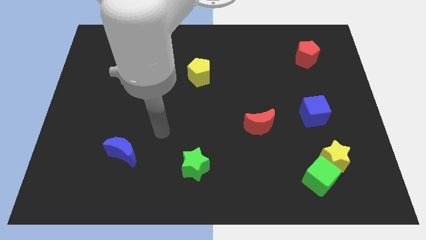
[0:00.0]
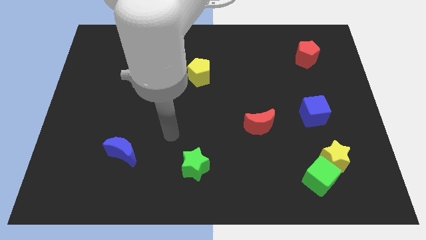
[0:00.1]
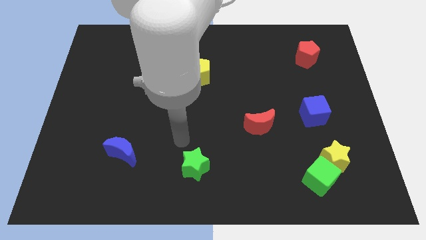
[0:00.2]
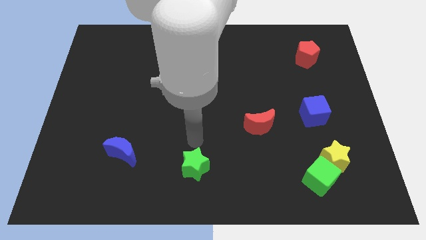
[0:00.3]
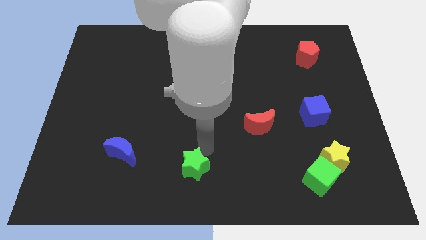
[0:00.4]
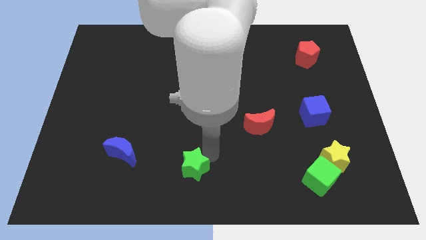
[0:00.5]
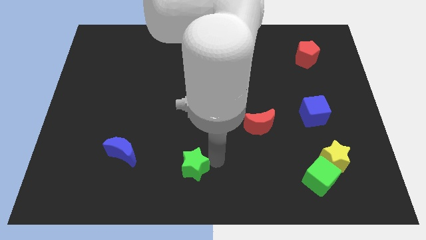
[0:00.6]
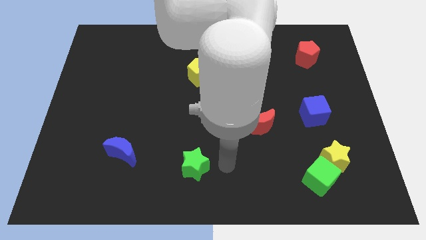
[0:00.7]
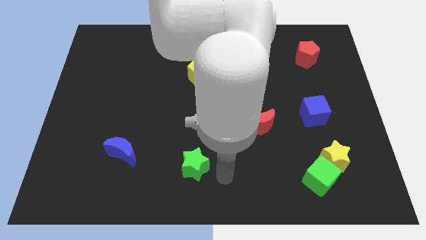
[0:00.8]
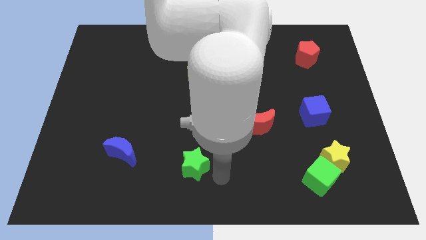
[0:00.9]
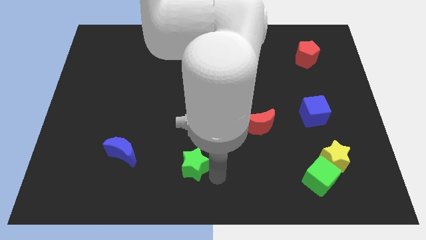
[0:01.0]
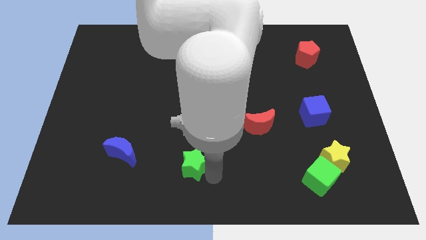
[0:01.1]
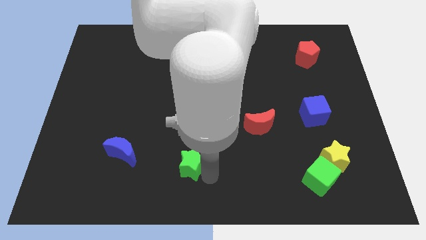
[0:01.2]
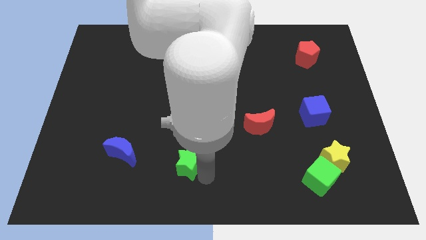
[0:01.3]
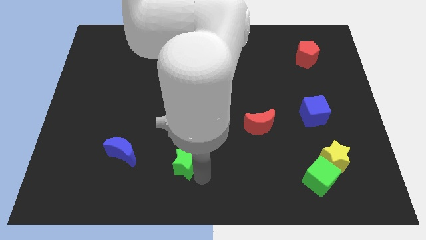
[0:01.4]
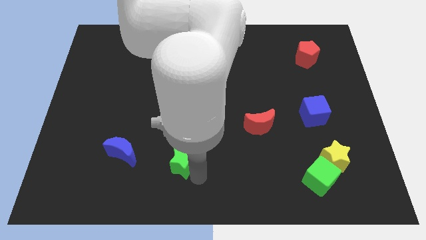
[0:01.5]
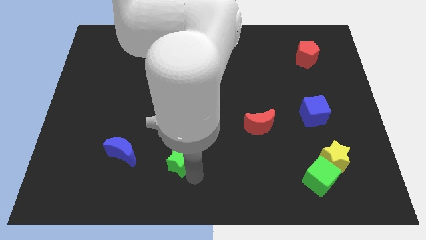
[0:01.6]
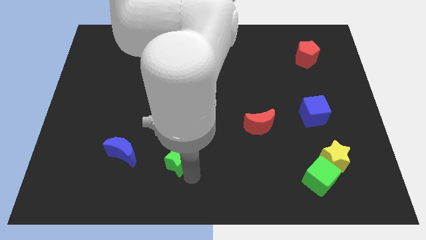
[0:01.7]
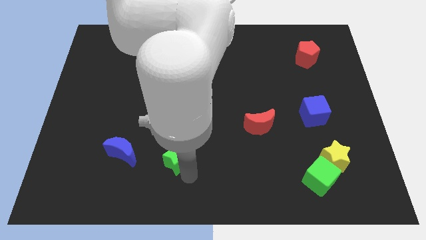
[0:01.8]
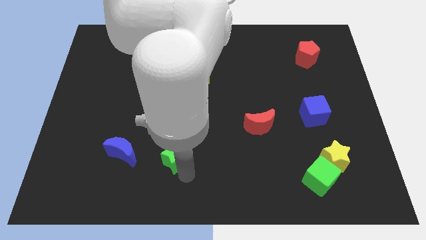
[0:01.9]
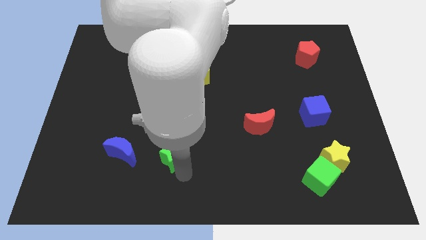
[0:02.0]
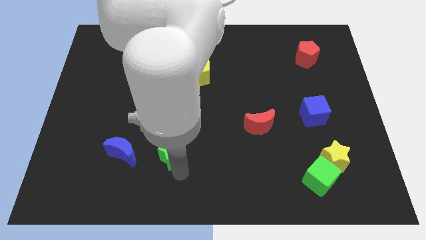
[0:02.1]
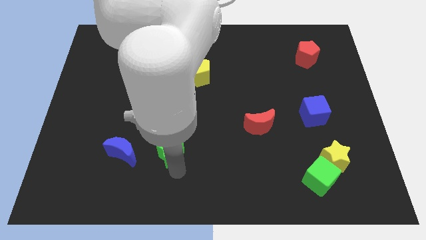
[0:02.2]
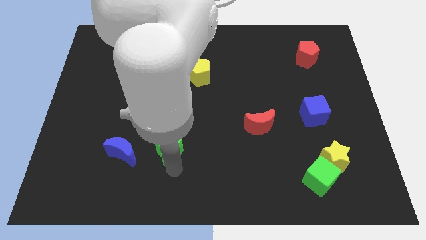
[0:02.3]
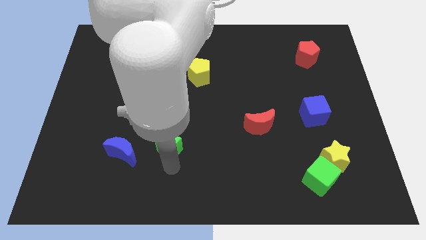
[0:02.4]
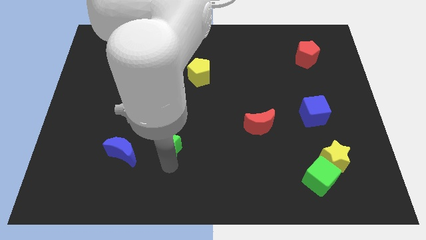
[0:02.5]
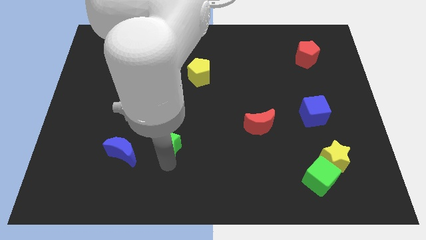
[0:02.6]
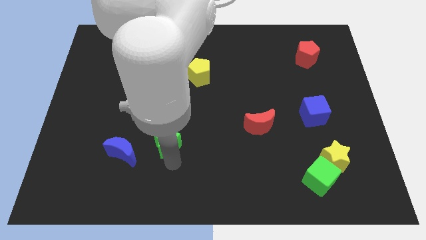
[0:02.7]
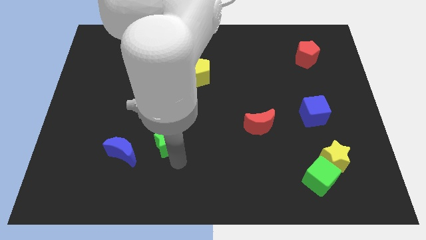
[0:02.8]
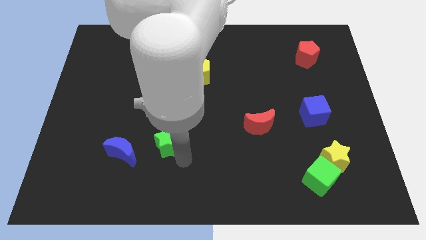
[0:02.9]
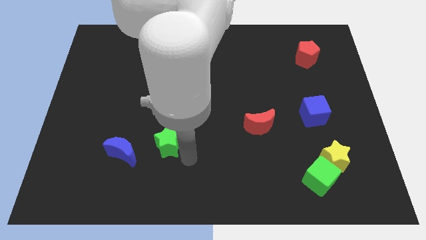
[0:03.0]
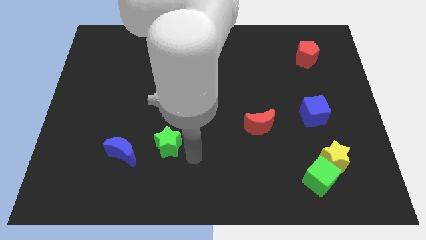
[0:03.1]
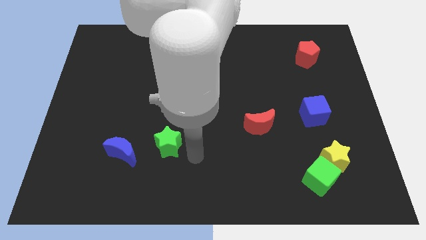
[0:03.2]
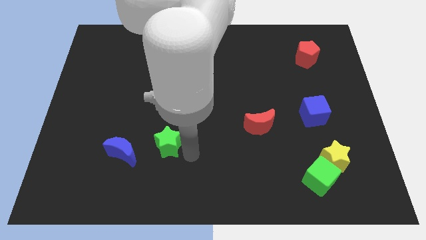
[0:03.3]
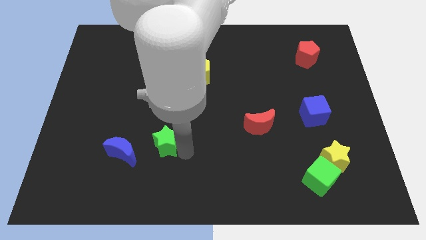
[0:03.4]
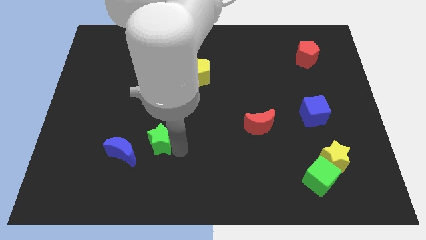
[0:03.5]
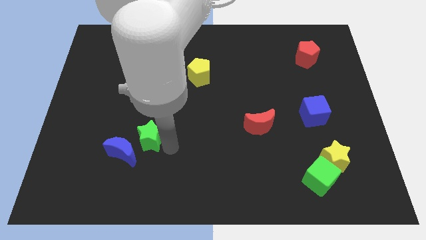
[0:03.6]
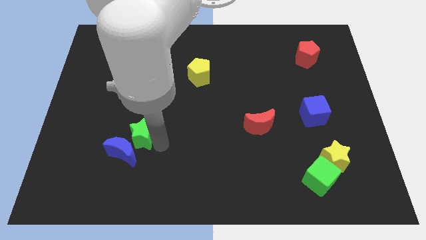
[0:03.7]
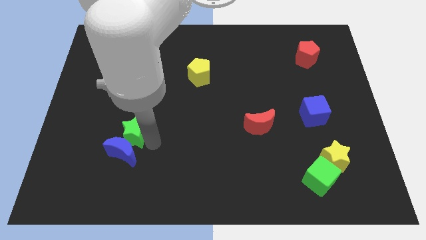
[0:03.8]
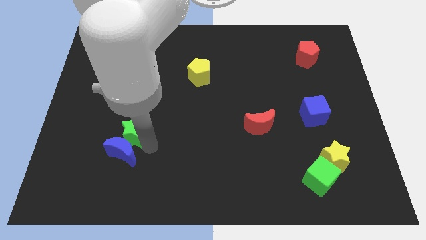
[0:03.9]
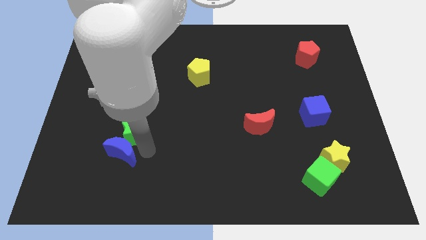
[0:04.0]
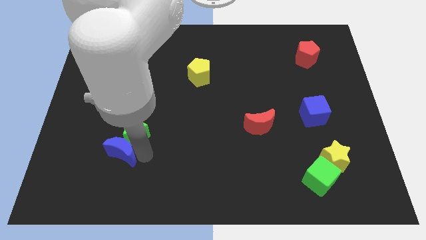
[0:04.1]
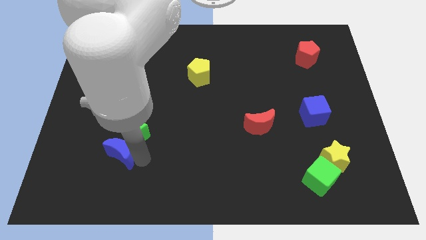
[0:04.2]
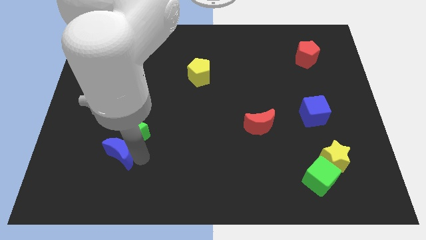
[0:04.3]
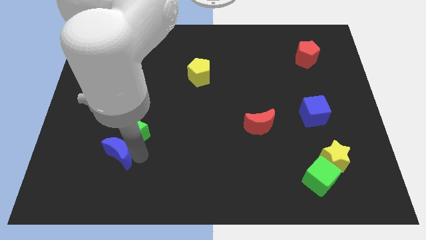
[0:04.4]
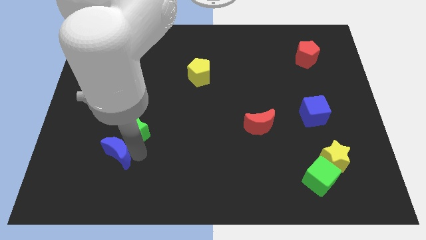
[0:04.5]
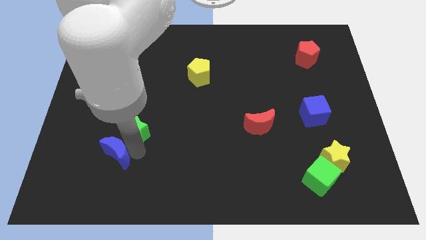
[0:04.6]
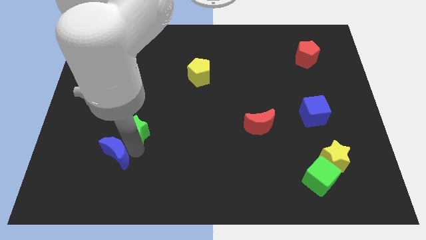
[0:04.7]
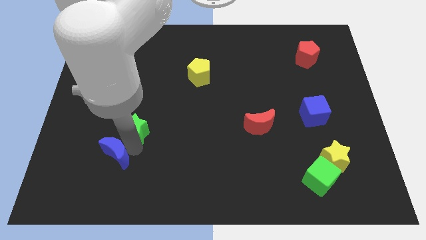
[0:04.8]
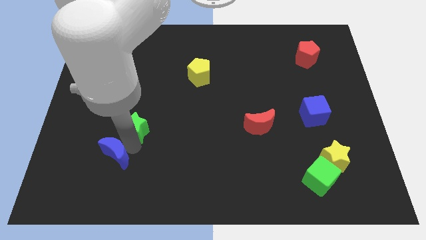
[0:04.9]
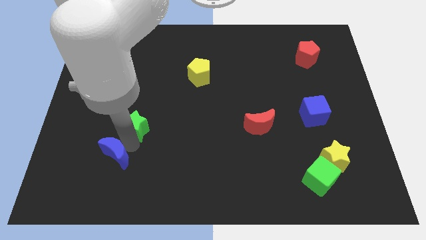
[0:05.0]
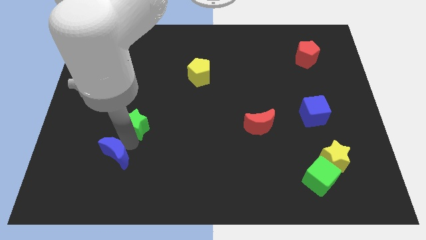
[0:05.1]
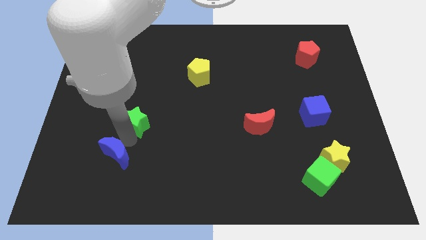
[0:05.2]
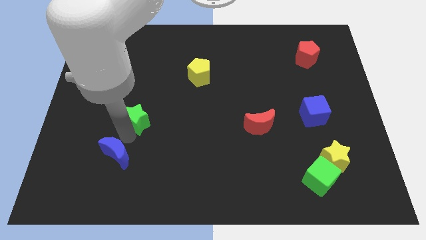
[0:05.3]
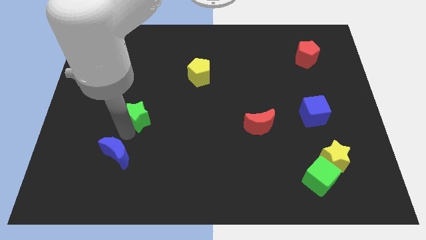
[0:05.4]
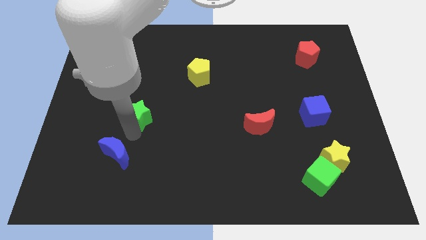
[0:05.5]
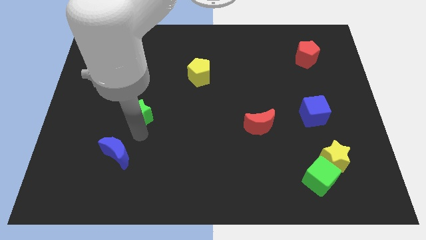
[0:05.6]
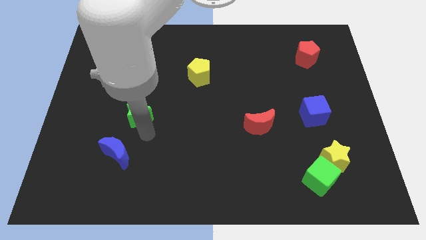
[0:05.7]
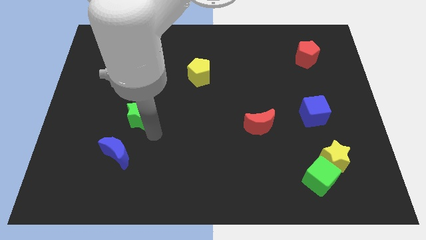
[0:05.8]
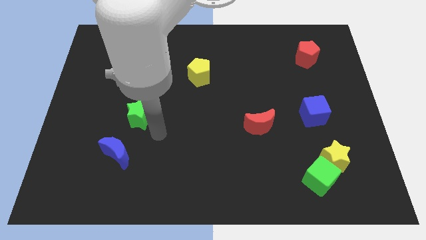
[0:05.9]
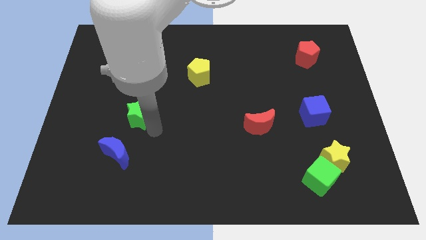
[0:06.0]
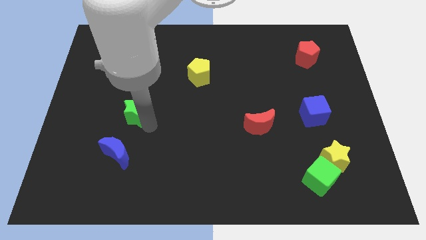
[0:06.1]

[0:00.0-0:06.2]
move the green star up and left

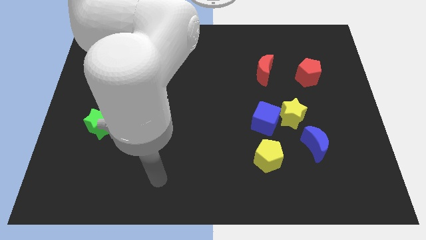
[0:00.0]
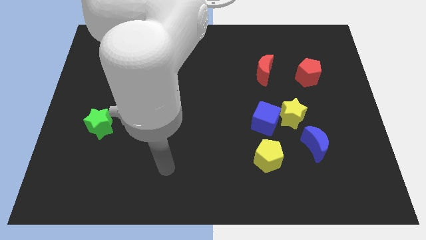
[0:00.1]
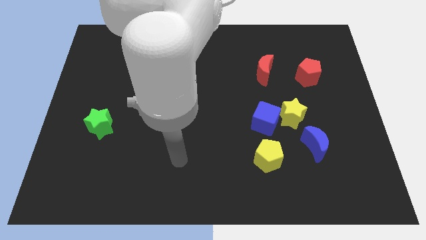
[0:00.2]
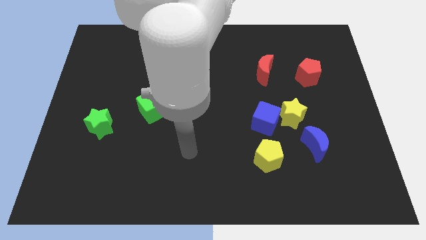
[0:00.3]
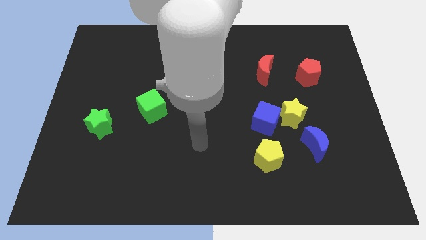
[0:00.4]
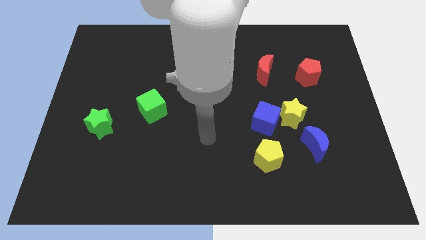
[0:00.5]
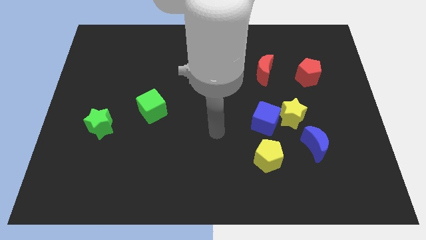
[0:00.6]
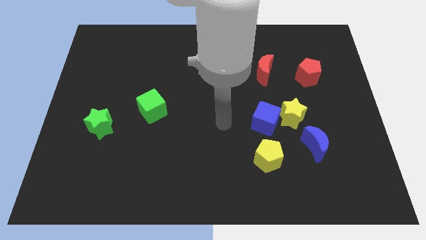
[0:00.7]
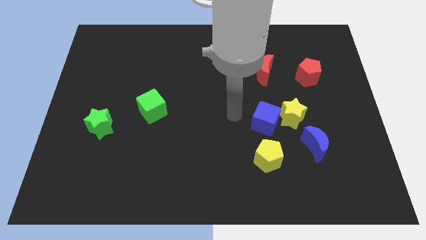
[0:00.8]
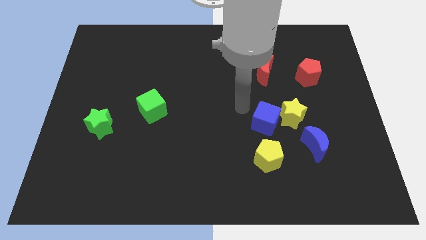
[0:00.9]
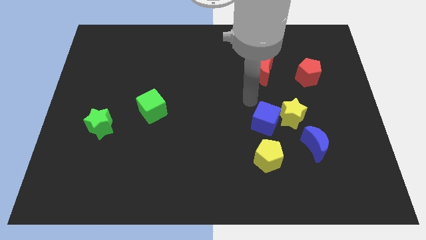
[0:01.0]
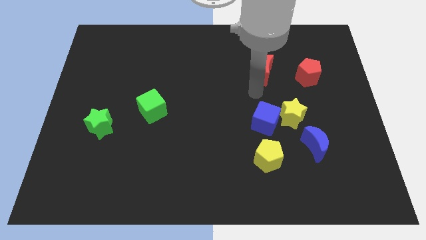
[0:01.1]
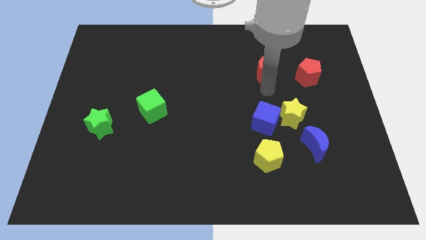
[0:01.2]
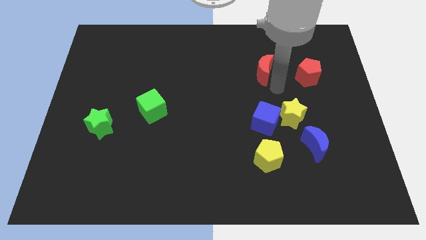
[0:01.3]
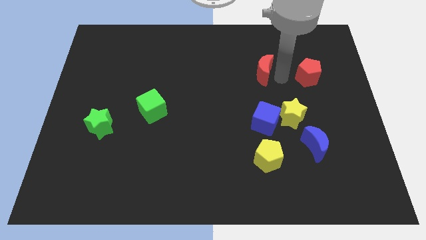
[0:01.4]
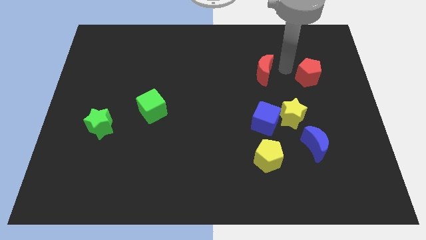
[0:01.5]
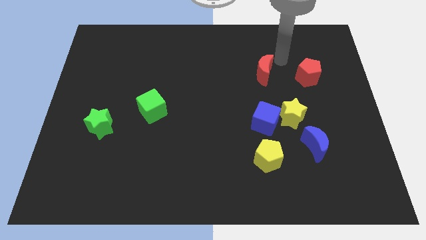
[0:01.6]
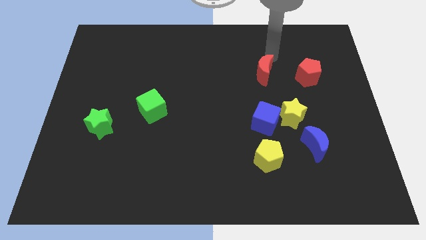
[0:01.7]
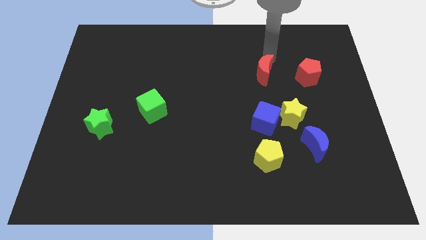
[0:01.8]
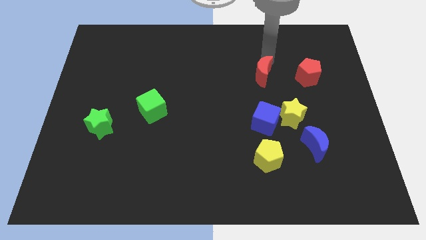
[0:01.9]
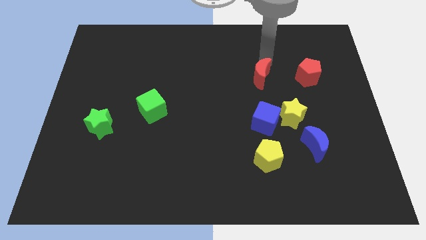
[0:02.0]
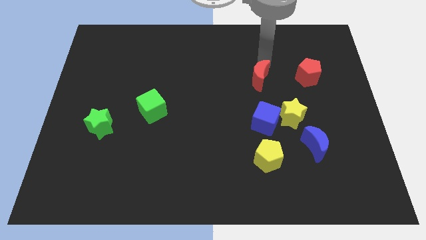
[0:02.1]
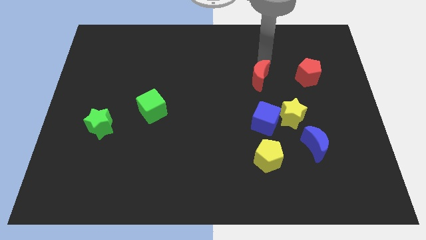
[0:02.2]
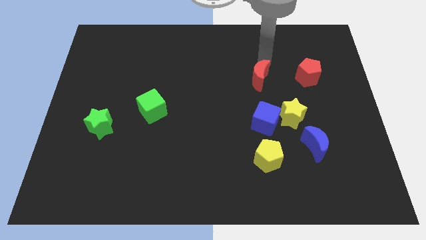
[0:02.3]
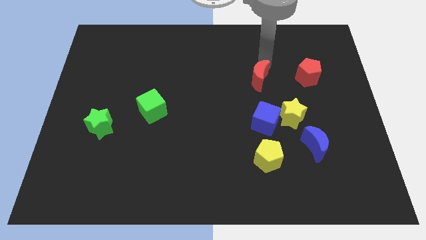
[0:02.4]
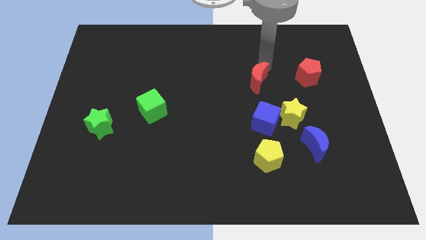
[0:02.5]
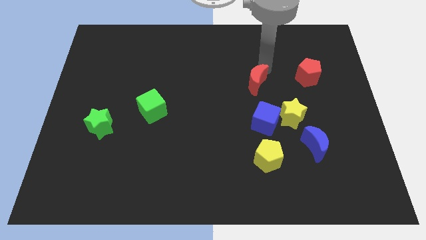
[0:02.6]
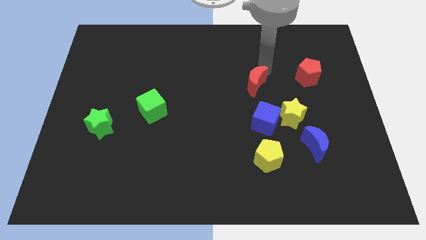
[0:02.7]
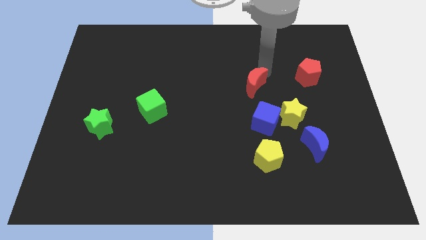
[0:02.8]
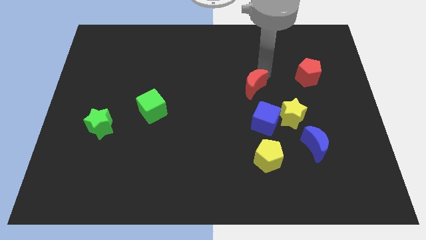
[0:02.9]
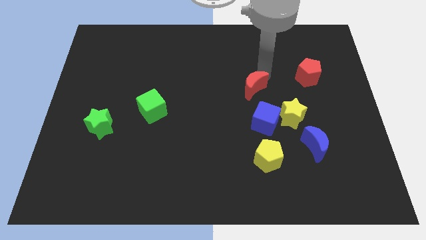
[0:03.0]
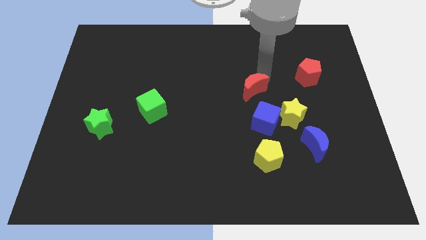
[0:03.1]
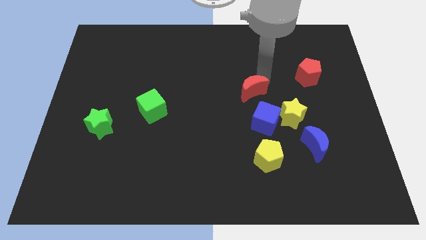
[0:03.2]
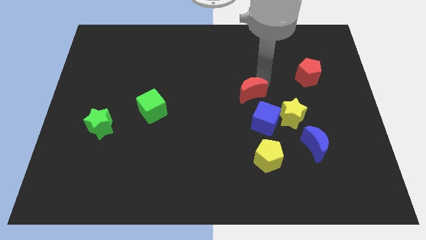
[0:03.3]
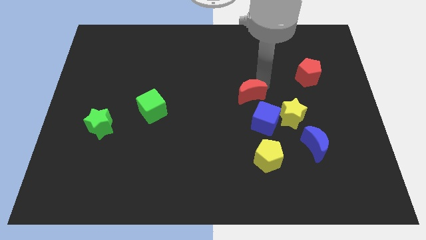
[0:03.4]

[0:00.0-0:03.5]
move the red moon somewhat downwards
